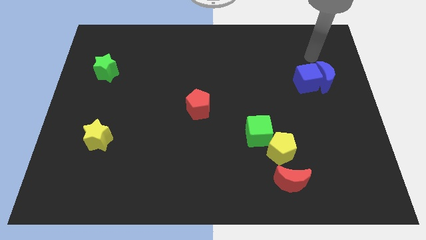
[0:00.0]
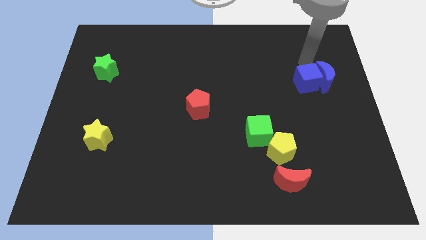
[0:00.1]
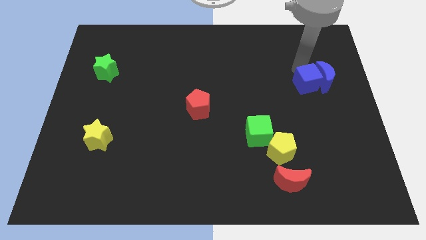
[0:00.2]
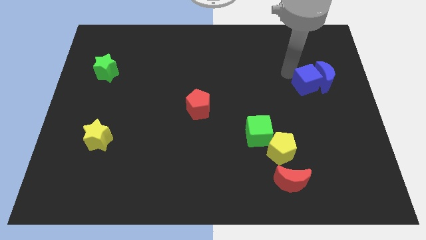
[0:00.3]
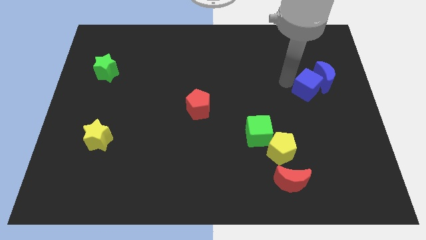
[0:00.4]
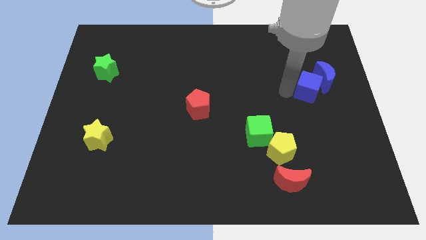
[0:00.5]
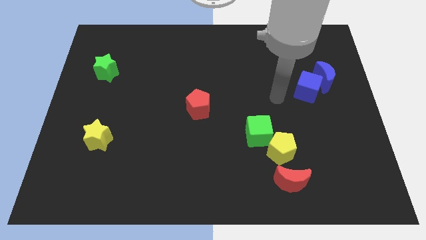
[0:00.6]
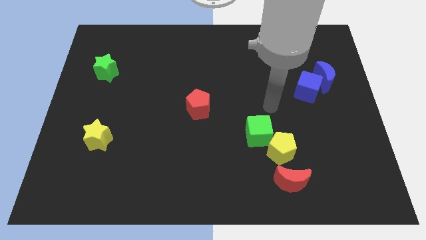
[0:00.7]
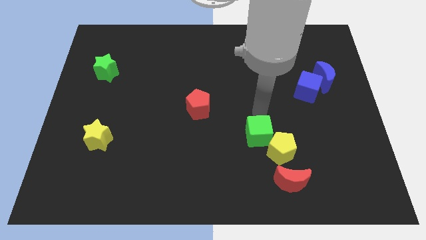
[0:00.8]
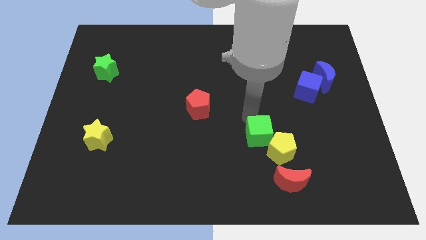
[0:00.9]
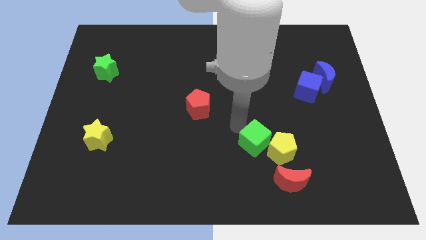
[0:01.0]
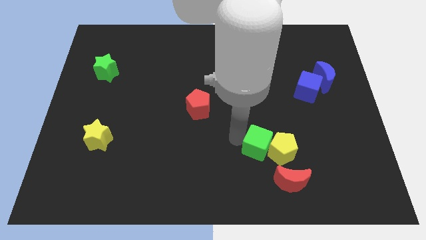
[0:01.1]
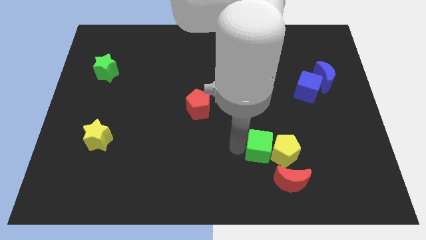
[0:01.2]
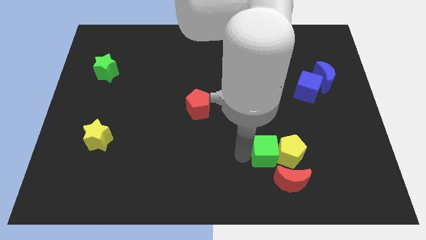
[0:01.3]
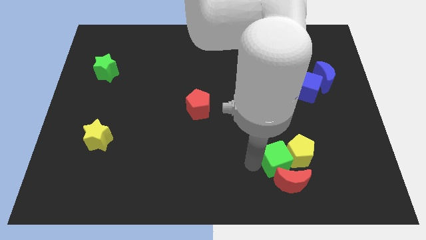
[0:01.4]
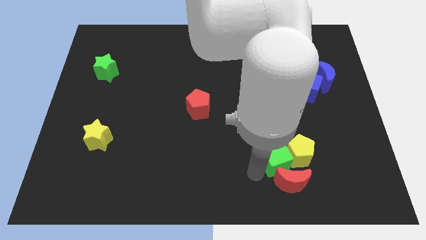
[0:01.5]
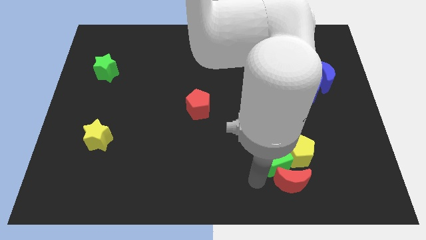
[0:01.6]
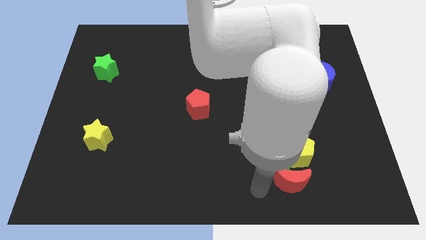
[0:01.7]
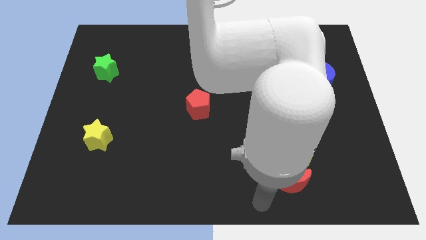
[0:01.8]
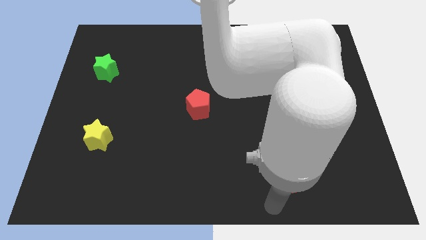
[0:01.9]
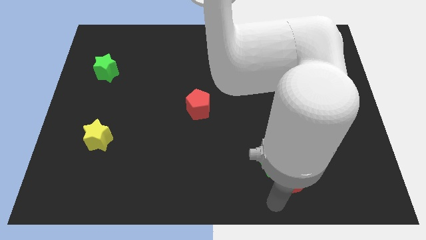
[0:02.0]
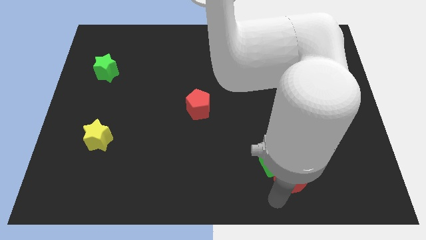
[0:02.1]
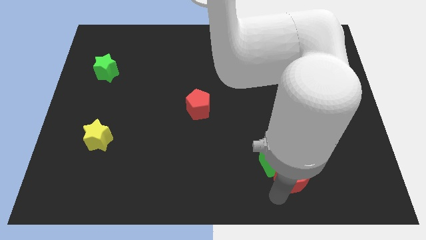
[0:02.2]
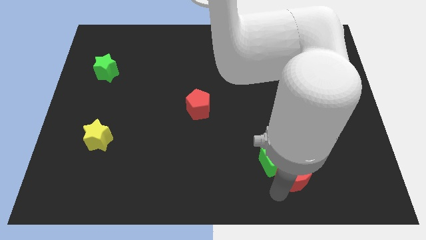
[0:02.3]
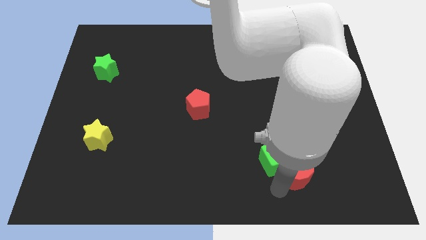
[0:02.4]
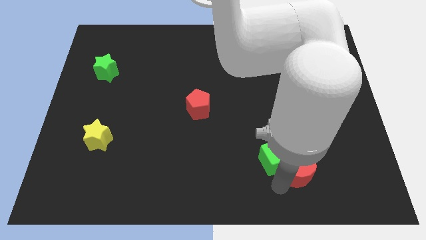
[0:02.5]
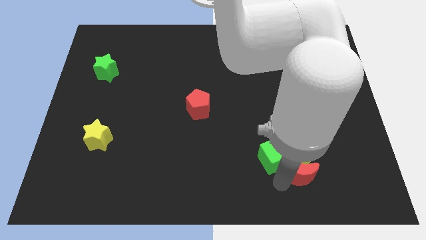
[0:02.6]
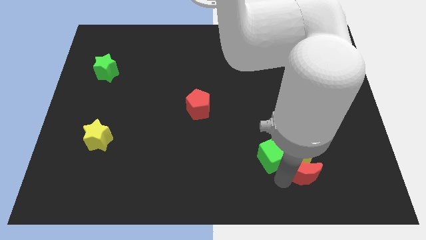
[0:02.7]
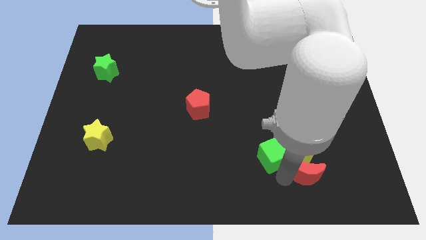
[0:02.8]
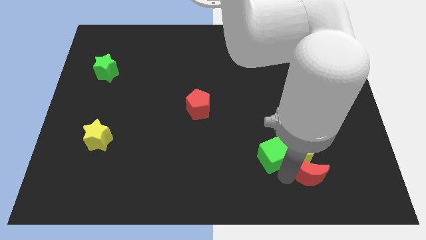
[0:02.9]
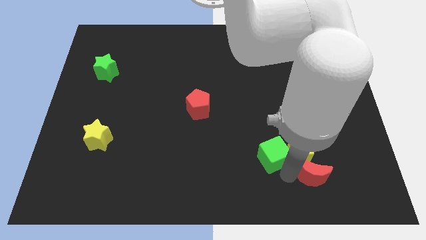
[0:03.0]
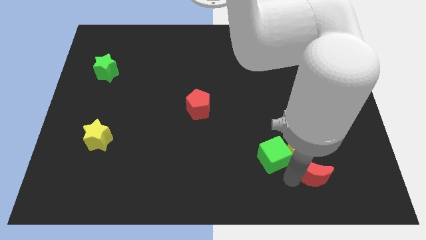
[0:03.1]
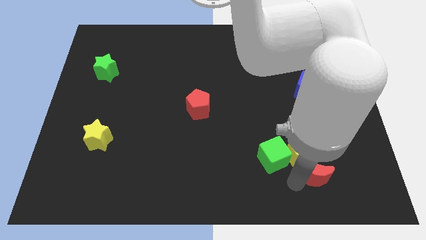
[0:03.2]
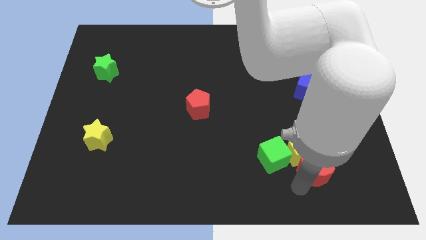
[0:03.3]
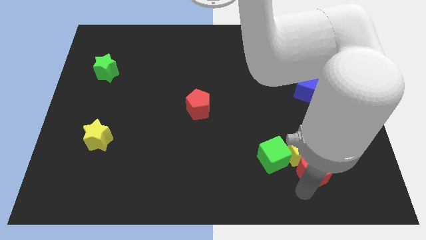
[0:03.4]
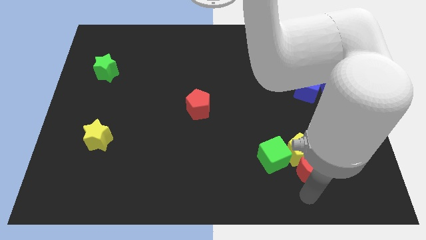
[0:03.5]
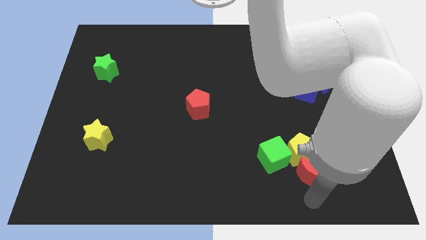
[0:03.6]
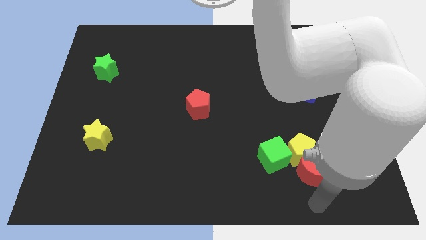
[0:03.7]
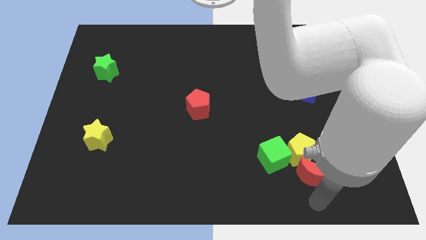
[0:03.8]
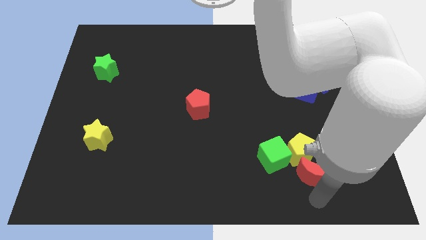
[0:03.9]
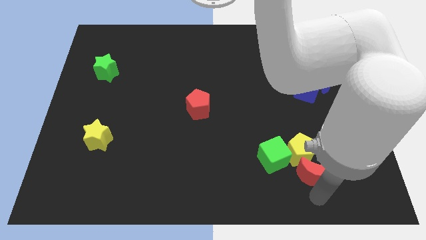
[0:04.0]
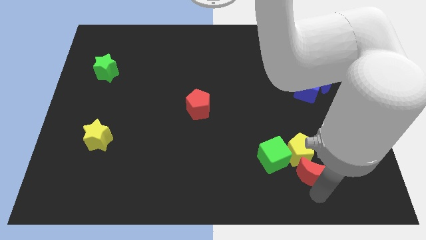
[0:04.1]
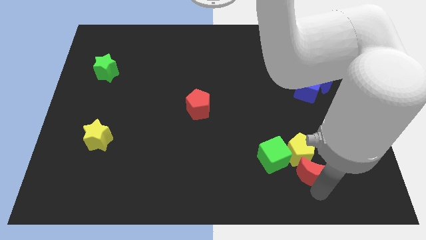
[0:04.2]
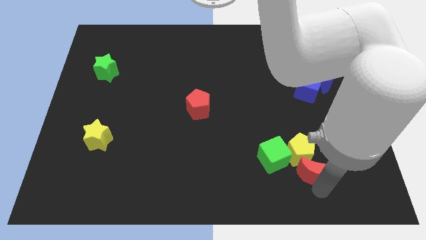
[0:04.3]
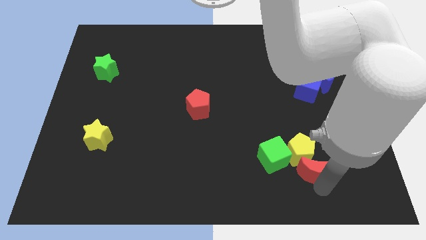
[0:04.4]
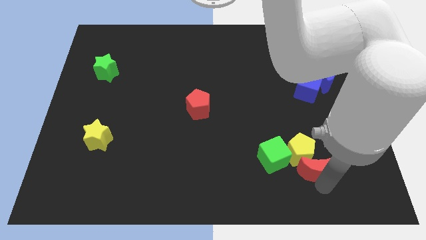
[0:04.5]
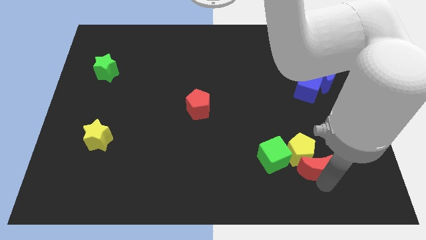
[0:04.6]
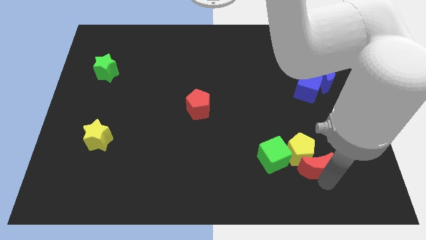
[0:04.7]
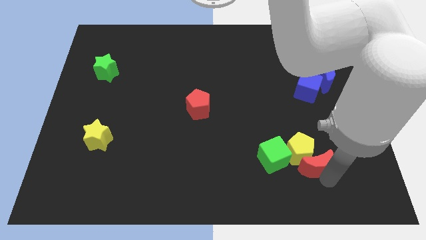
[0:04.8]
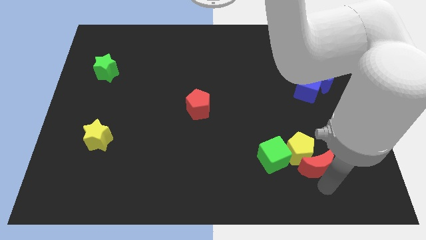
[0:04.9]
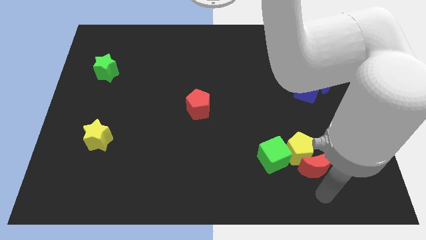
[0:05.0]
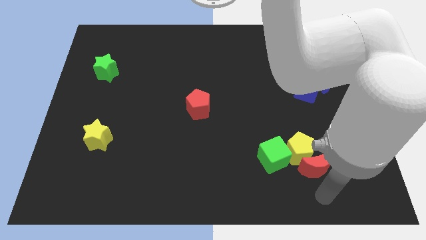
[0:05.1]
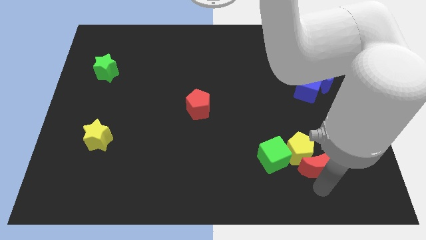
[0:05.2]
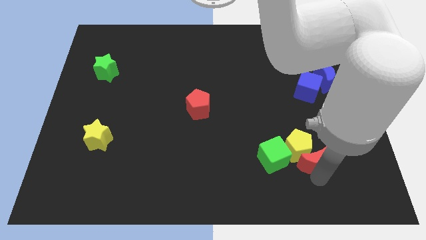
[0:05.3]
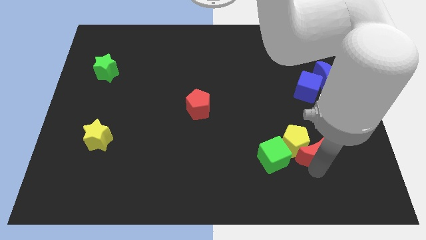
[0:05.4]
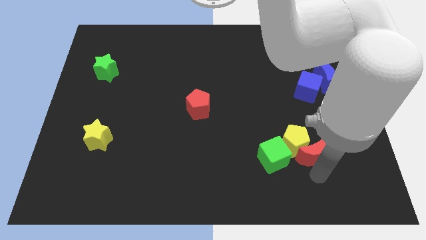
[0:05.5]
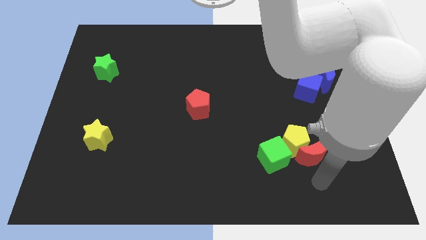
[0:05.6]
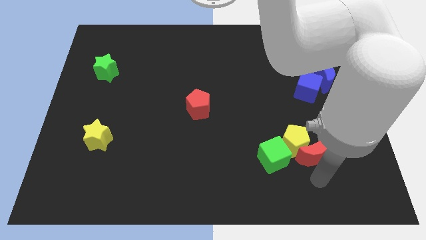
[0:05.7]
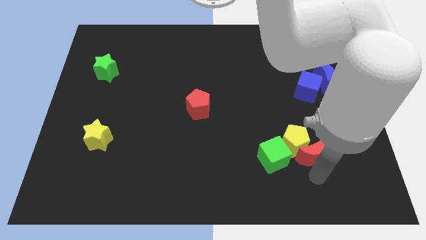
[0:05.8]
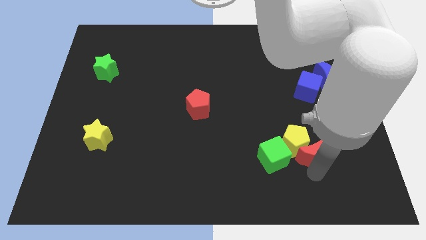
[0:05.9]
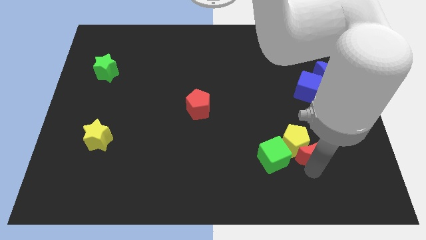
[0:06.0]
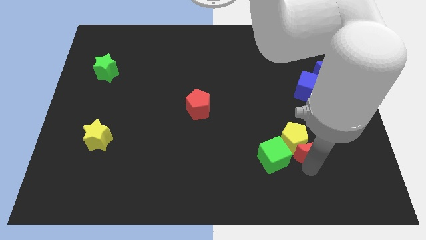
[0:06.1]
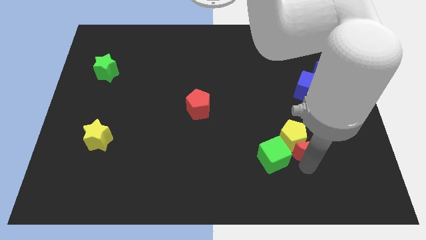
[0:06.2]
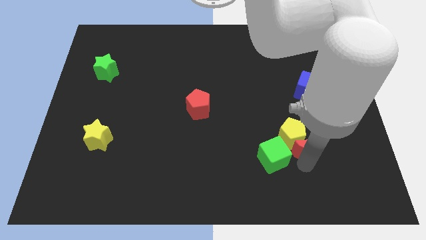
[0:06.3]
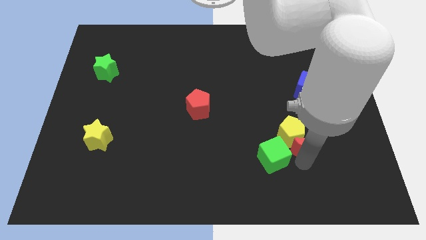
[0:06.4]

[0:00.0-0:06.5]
push the red moon upwards somewhat

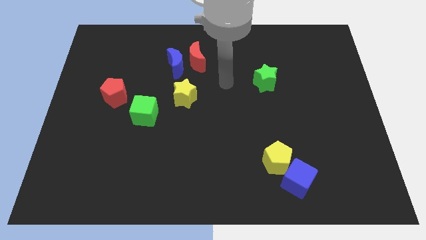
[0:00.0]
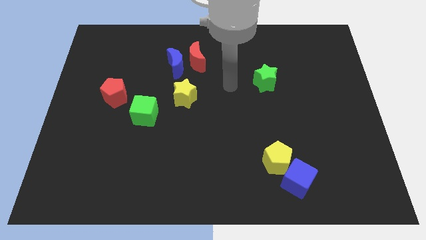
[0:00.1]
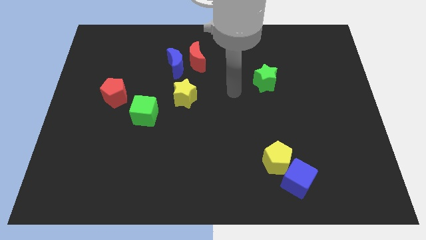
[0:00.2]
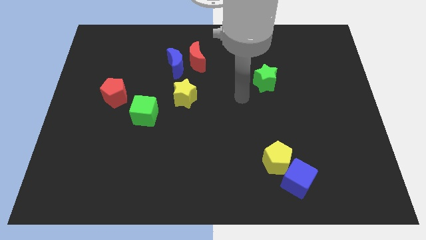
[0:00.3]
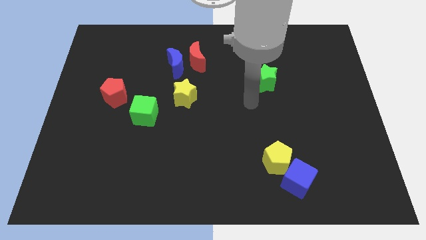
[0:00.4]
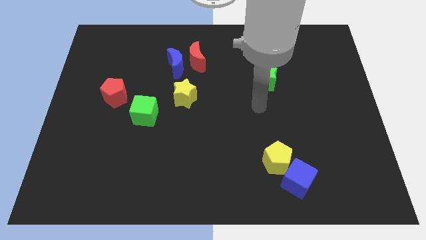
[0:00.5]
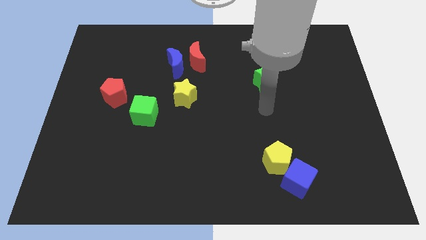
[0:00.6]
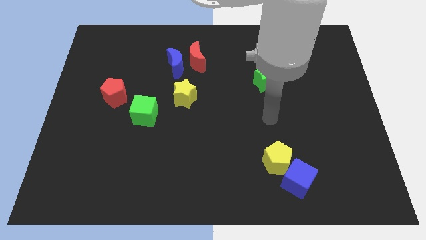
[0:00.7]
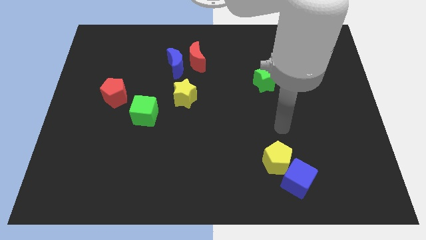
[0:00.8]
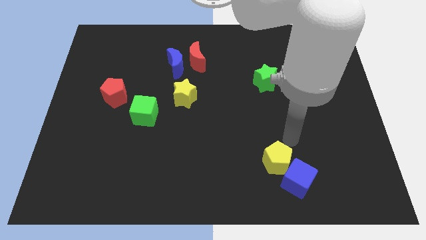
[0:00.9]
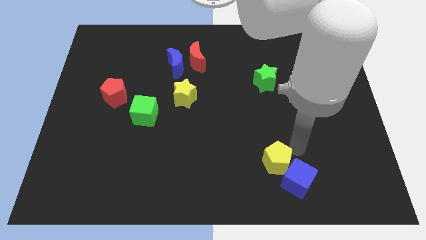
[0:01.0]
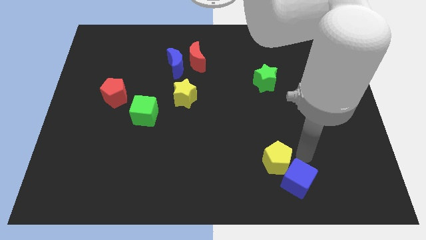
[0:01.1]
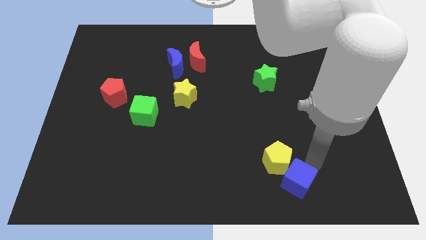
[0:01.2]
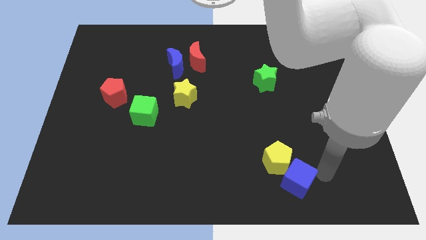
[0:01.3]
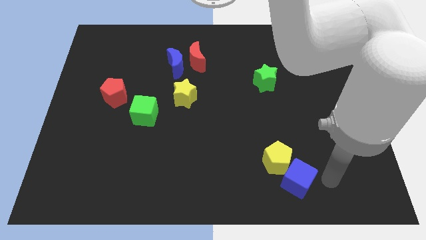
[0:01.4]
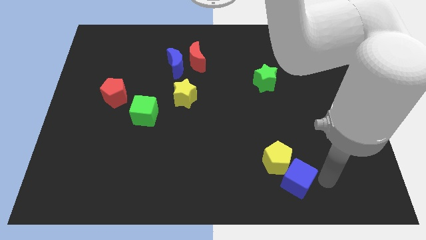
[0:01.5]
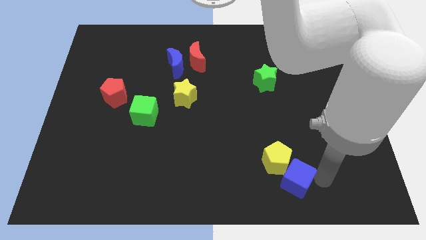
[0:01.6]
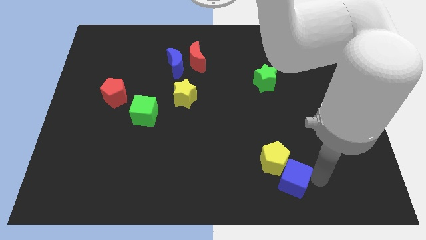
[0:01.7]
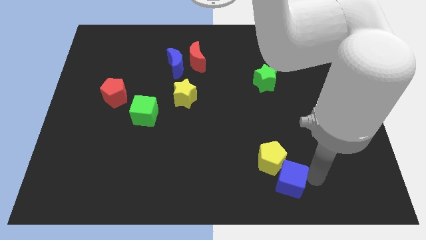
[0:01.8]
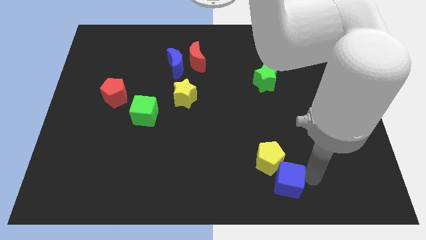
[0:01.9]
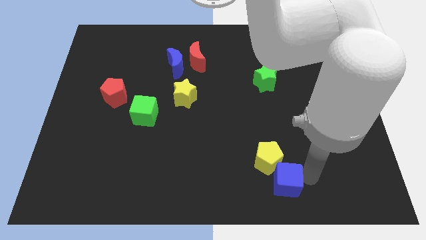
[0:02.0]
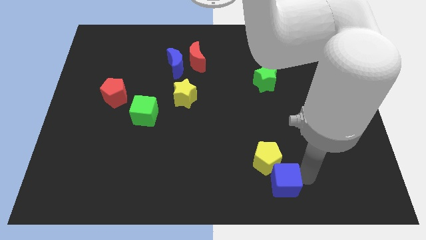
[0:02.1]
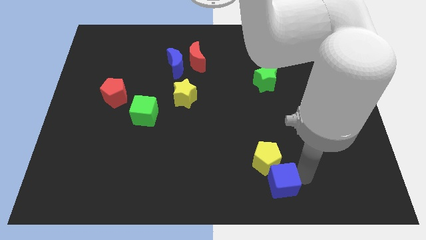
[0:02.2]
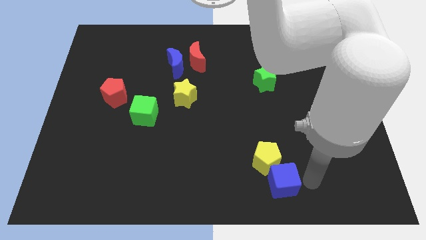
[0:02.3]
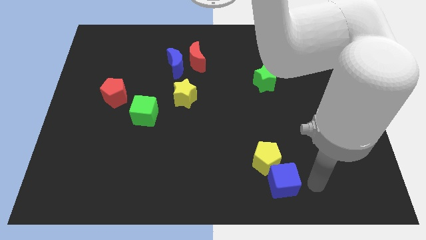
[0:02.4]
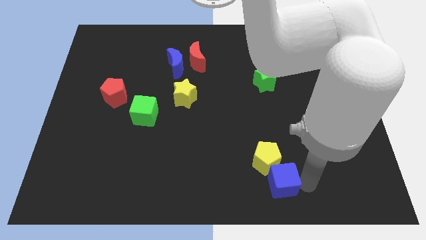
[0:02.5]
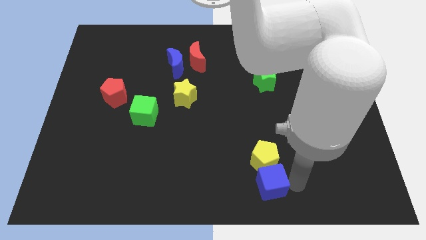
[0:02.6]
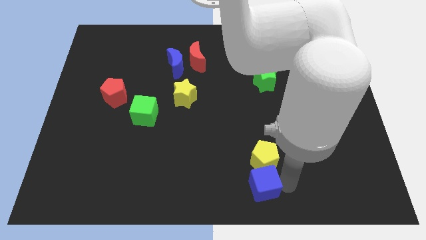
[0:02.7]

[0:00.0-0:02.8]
slightly push the blue cube to the left
